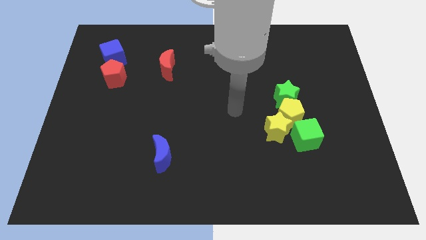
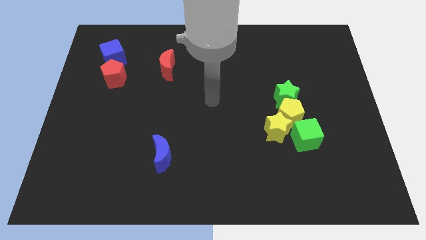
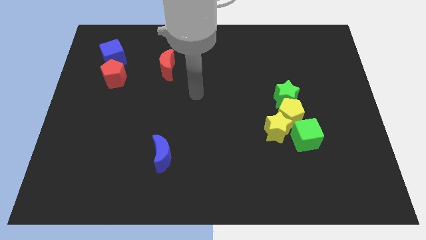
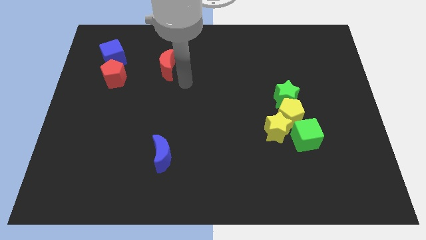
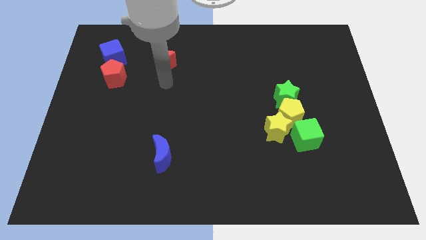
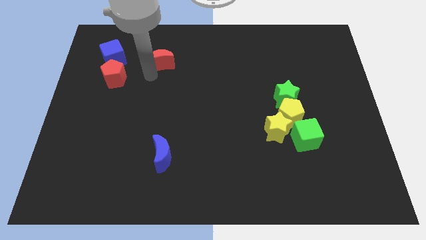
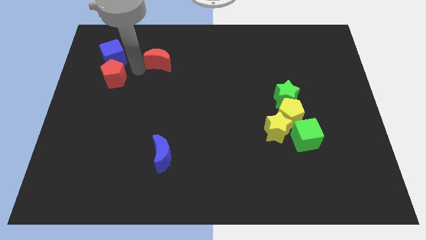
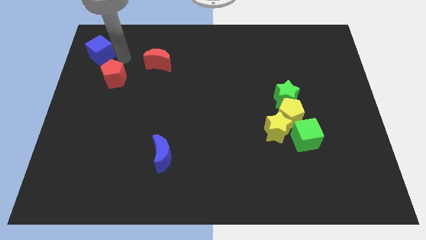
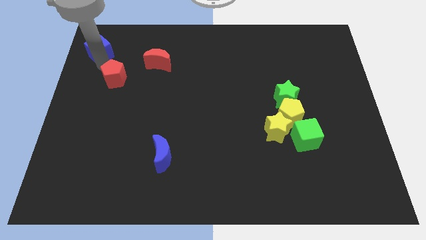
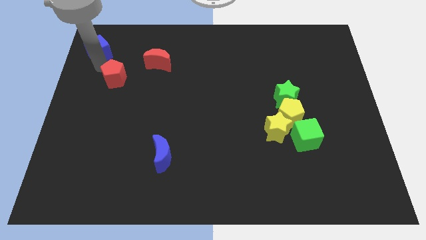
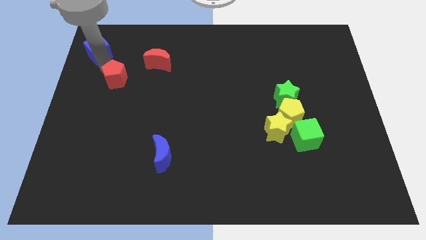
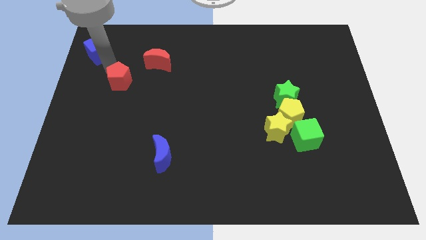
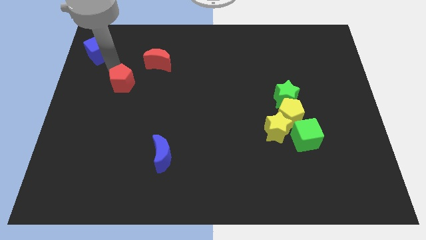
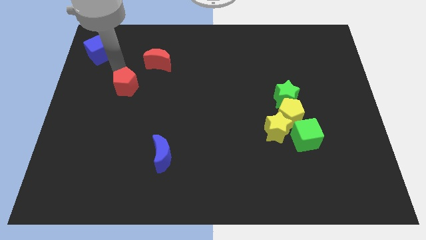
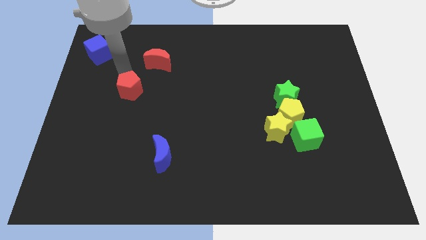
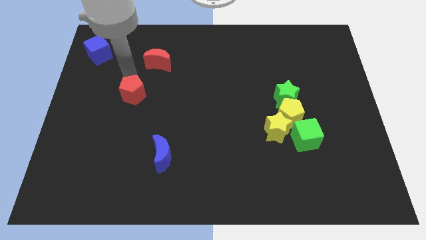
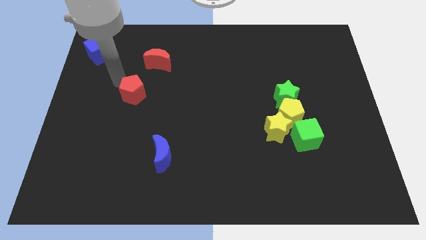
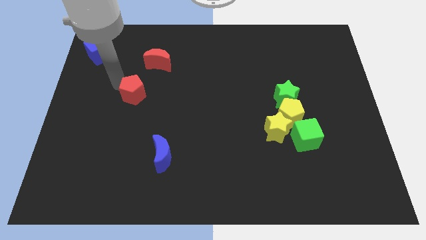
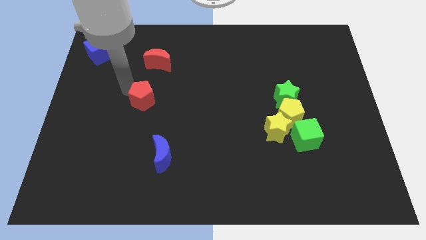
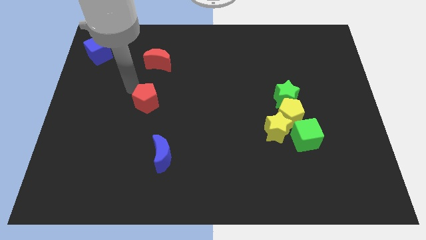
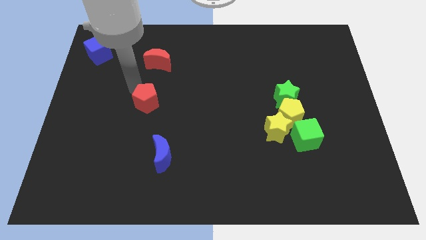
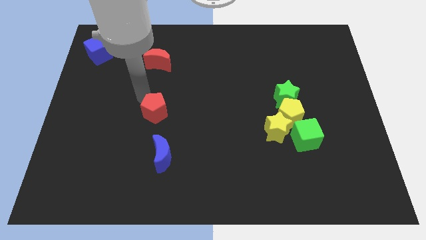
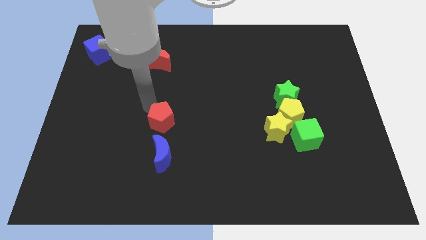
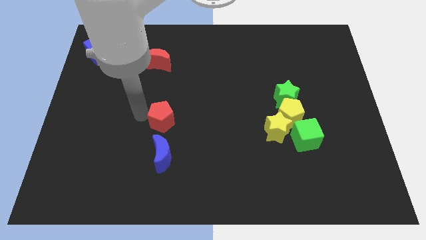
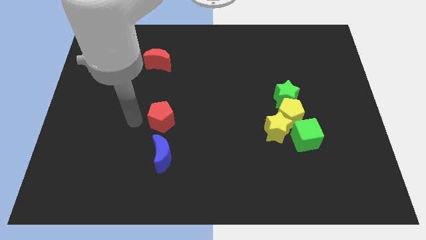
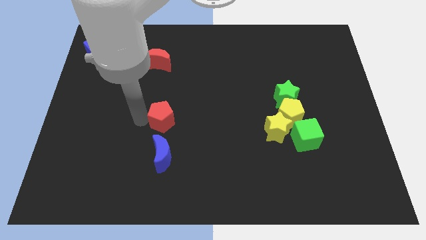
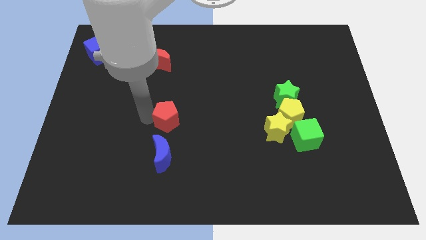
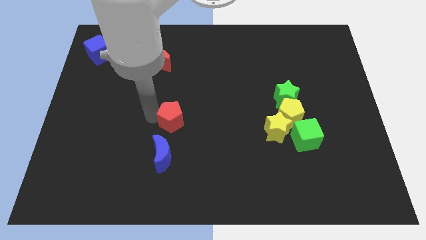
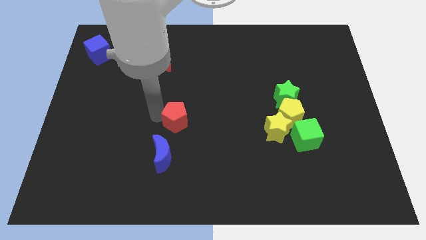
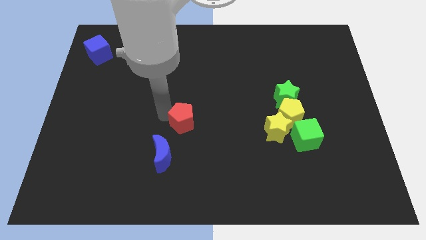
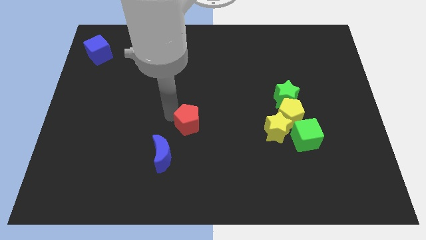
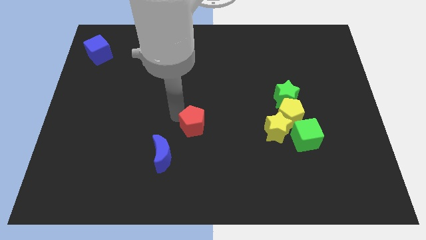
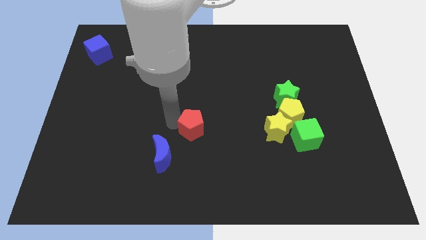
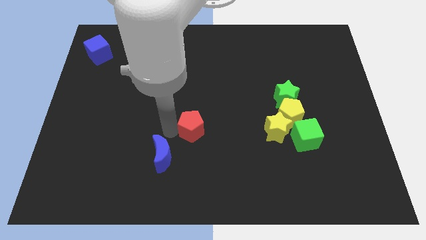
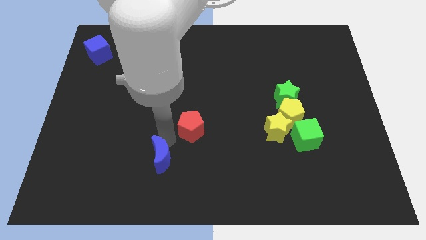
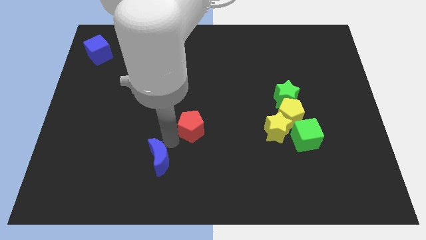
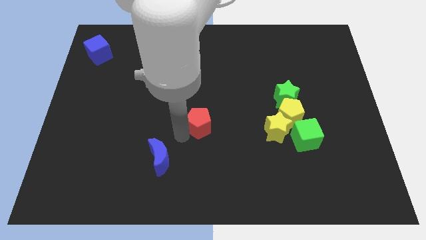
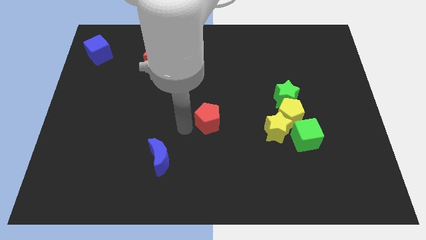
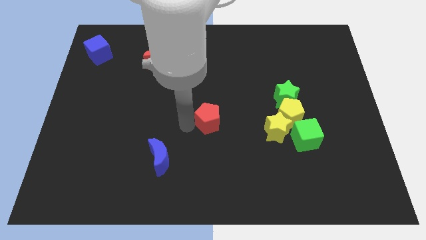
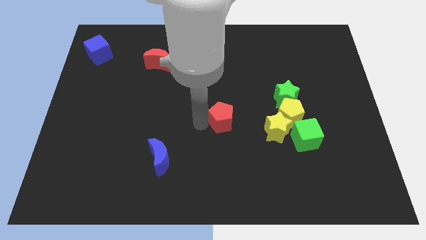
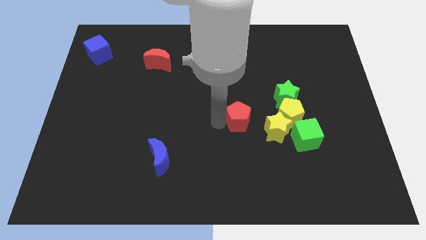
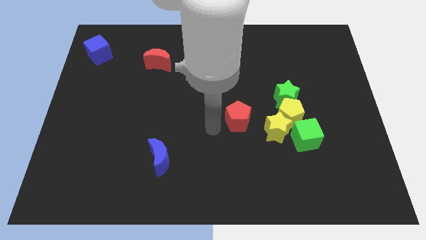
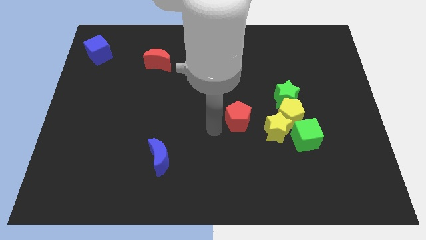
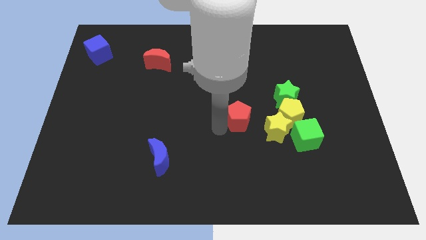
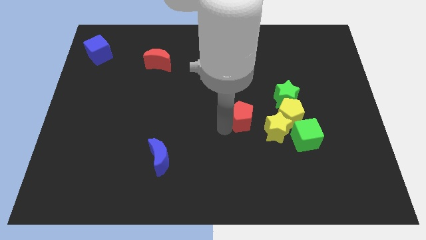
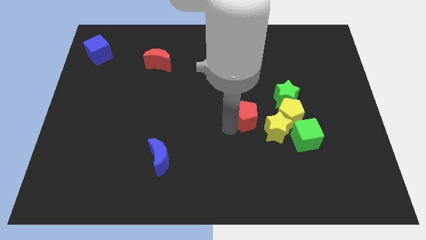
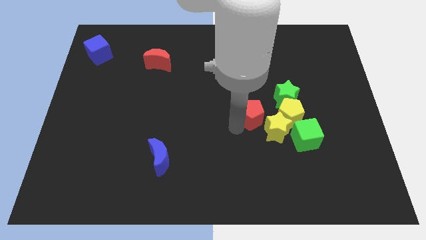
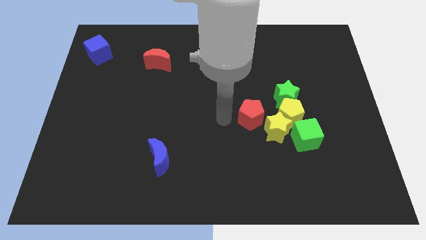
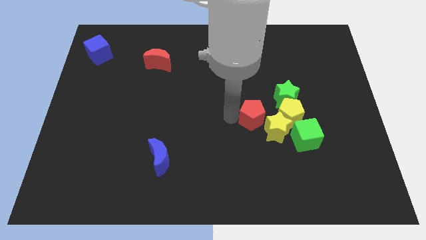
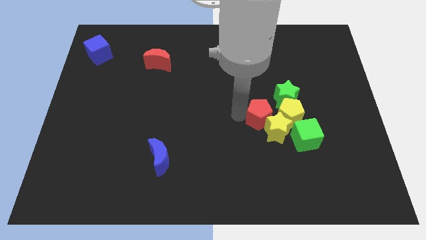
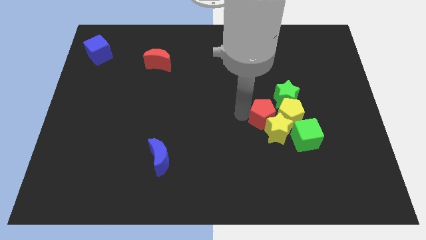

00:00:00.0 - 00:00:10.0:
move the red pentagon towards the yellow pentagon

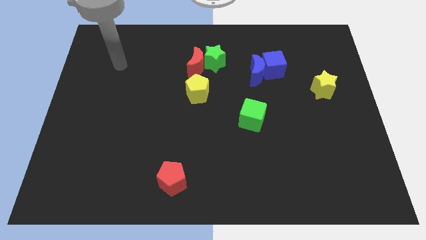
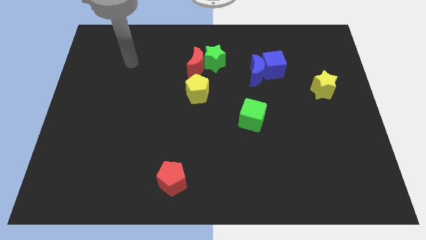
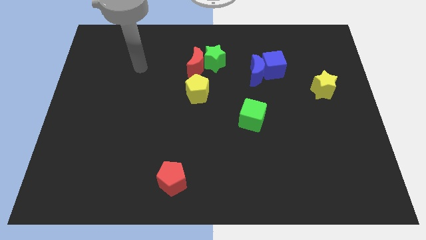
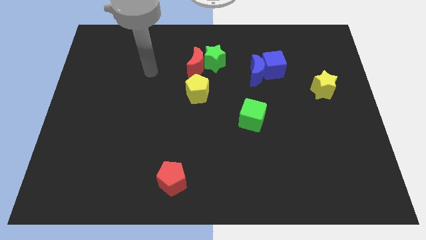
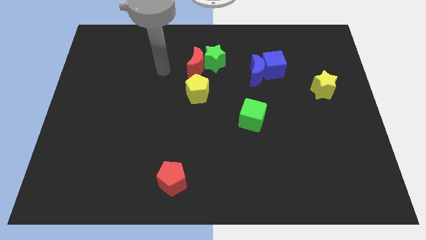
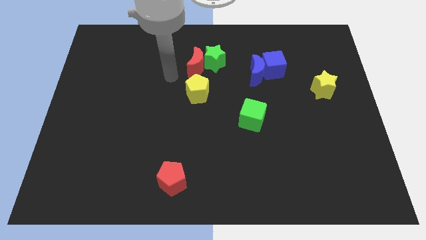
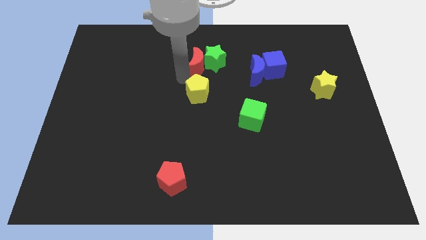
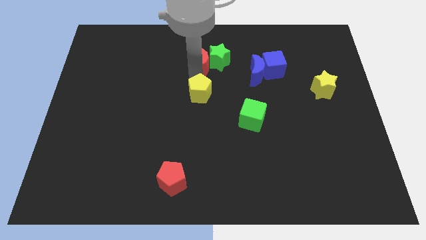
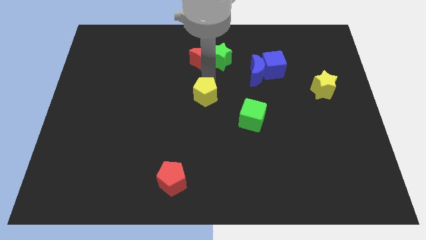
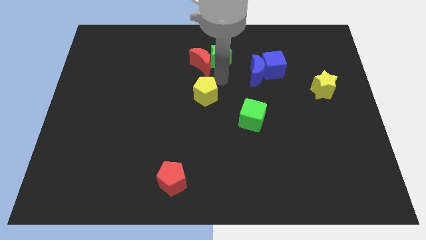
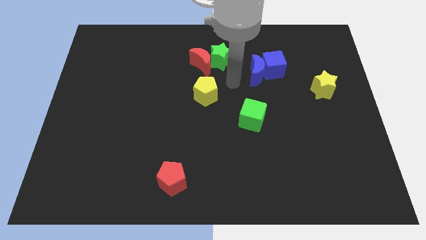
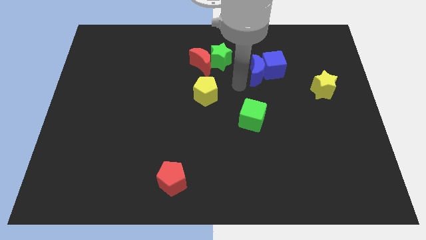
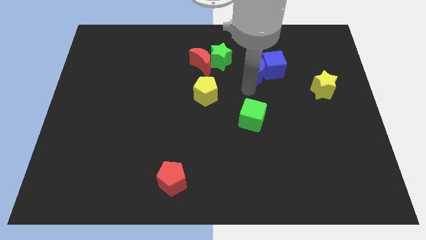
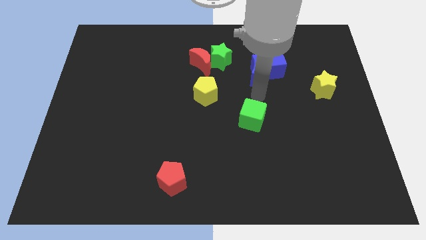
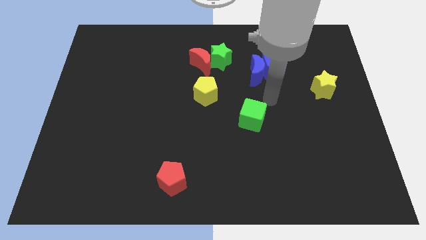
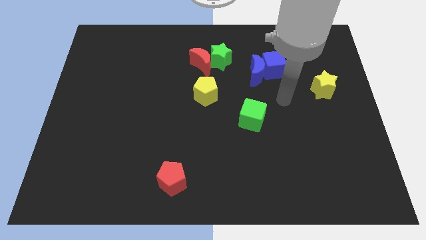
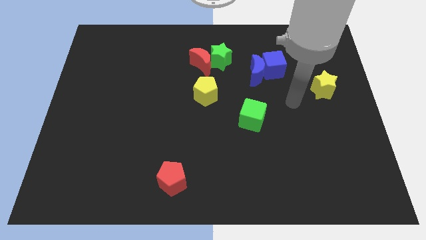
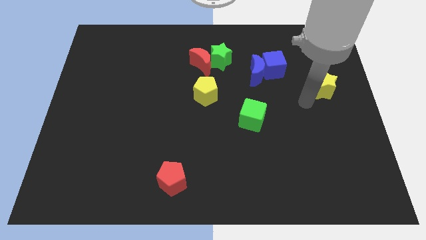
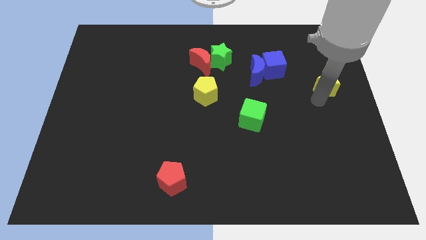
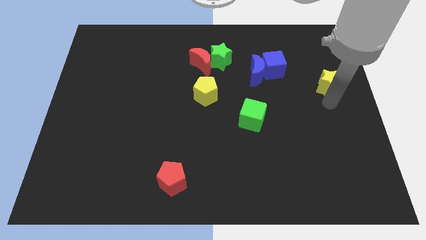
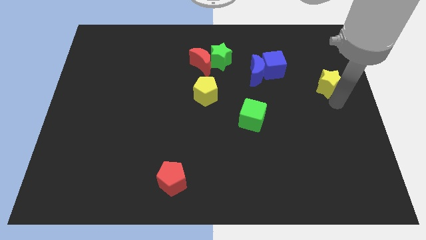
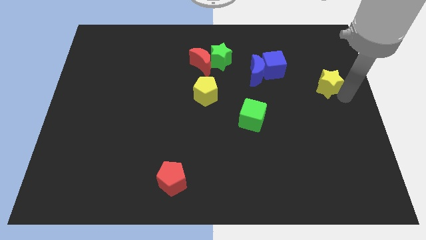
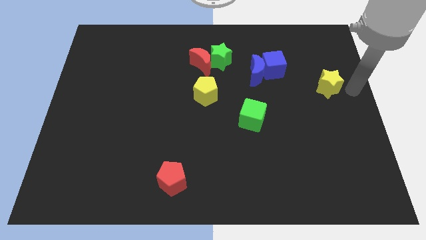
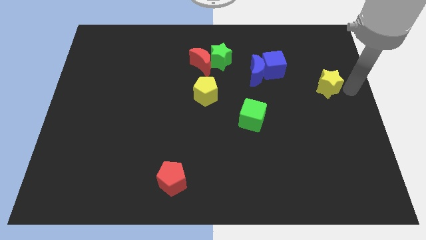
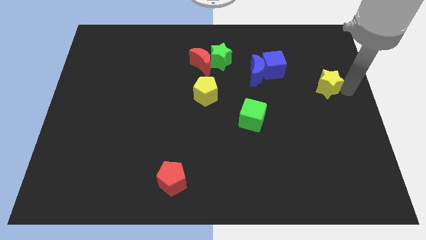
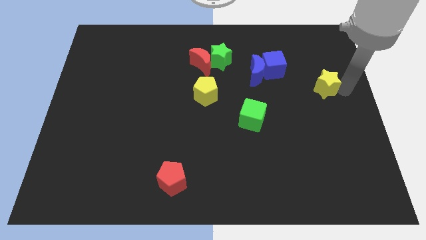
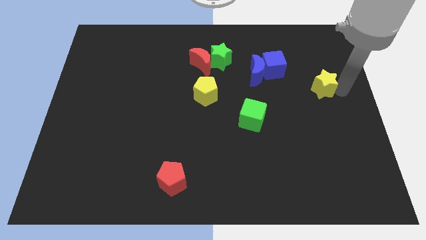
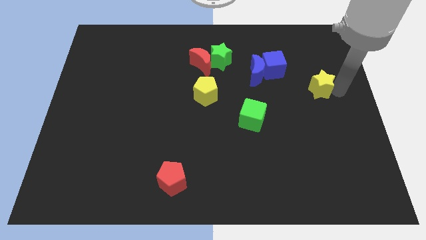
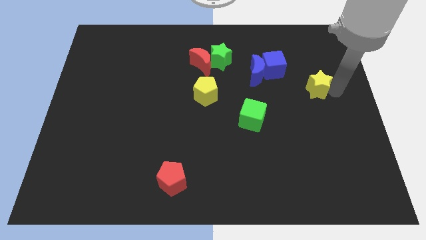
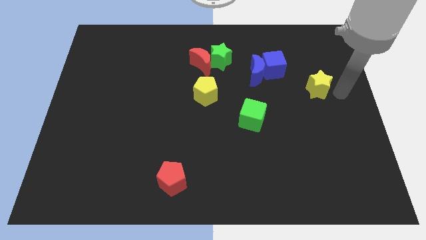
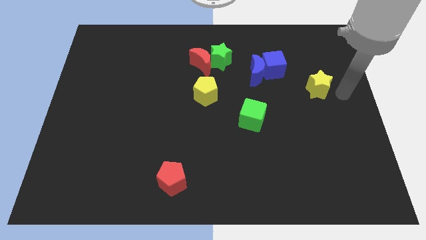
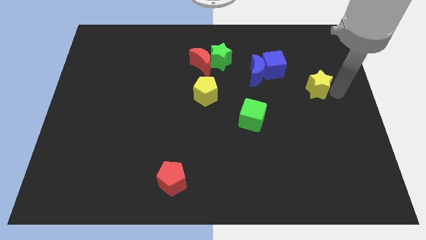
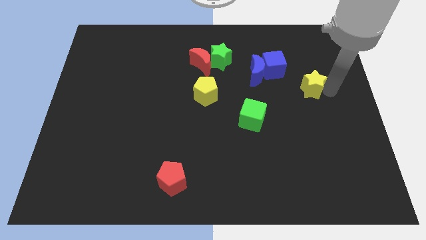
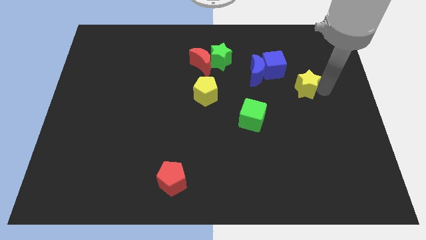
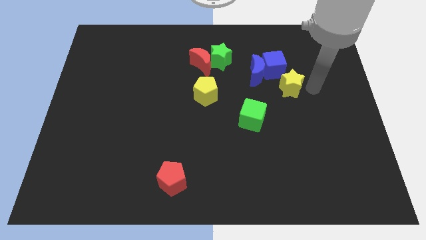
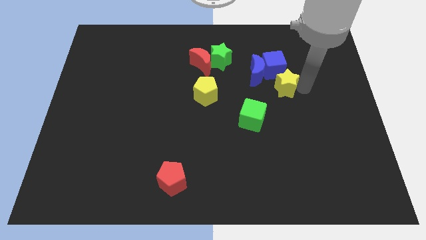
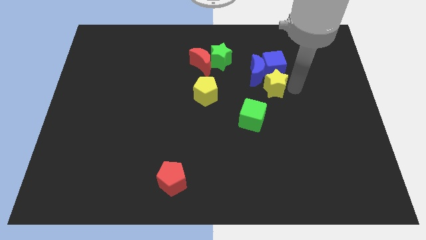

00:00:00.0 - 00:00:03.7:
push the yellow star close to the blue moon
